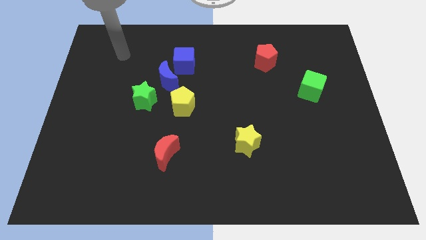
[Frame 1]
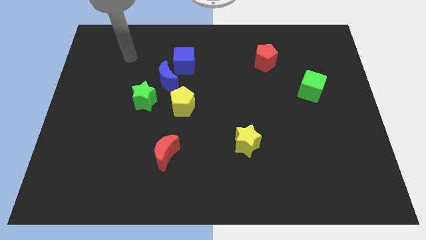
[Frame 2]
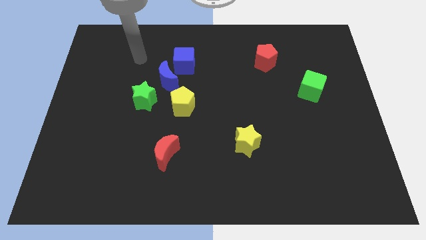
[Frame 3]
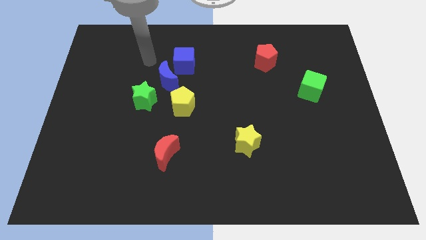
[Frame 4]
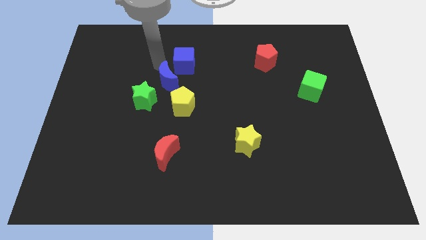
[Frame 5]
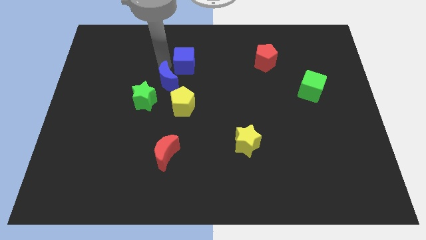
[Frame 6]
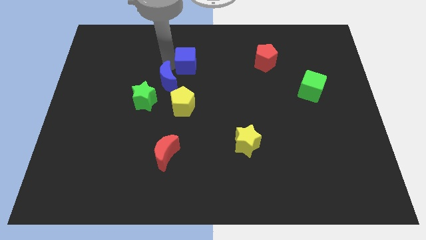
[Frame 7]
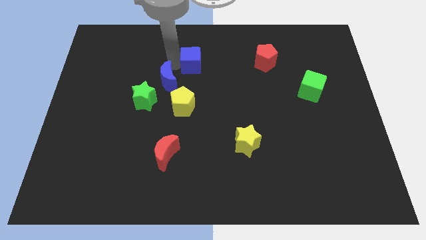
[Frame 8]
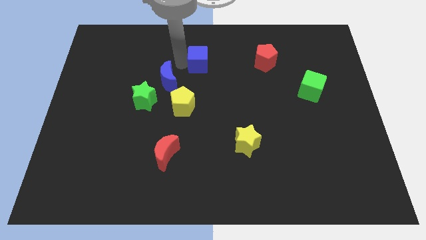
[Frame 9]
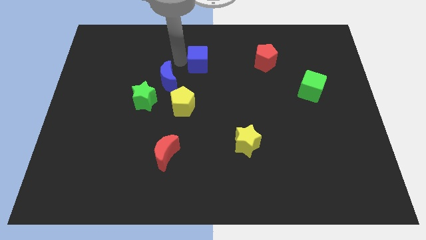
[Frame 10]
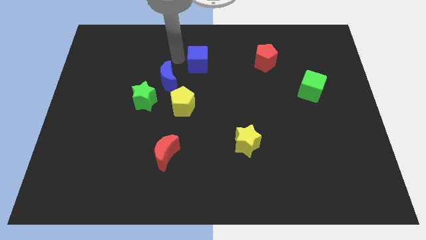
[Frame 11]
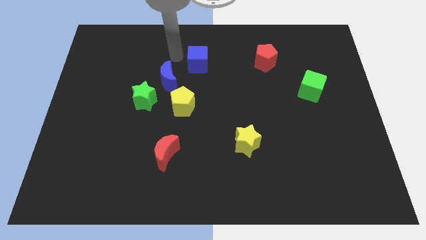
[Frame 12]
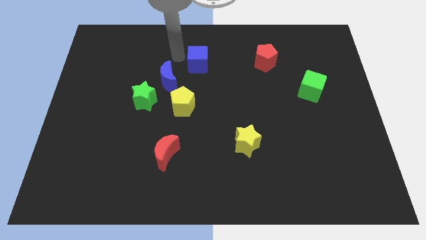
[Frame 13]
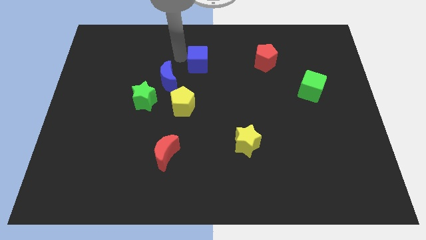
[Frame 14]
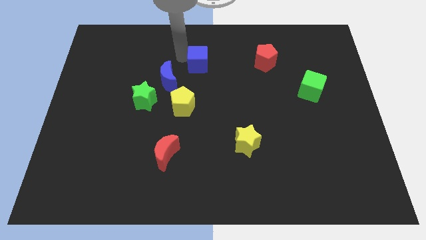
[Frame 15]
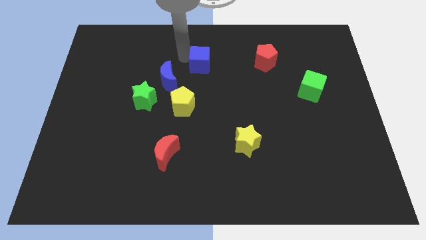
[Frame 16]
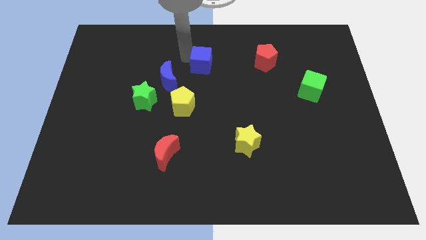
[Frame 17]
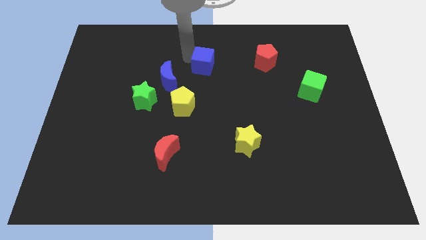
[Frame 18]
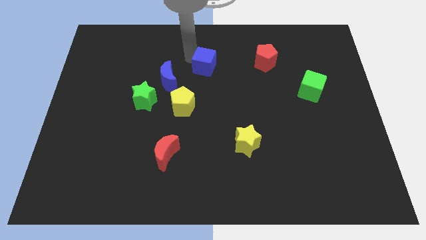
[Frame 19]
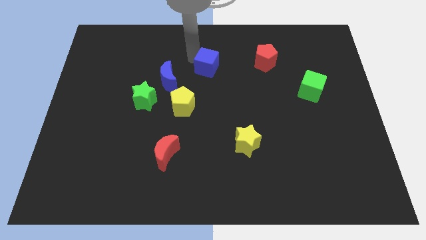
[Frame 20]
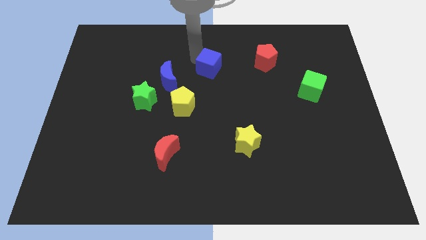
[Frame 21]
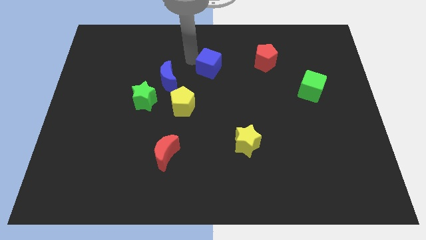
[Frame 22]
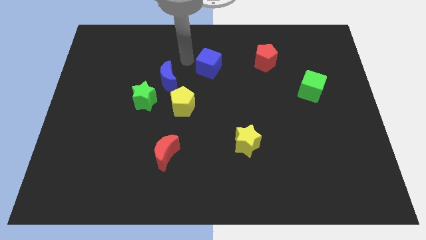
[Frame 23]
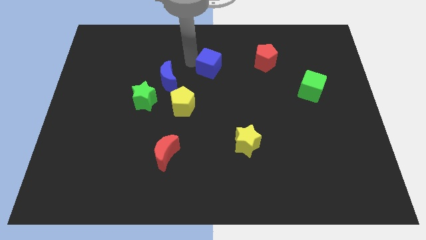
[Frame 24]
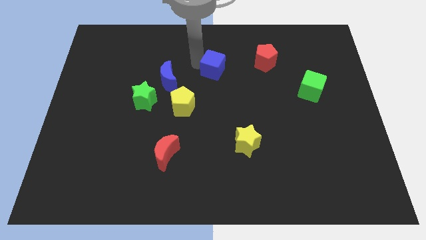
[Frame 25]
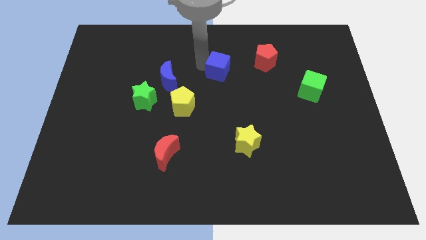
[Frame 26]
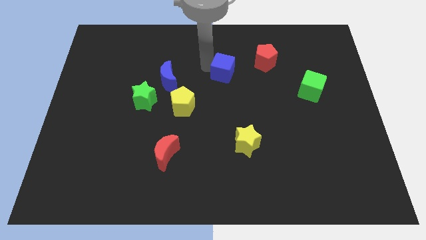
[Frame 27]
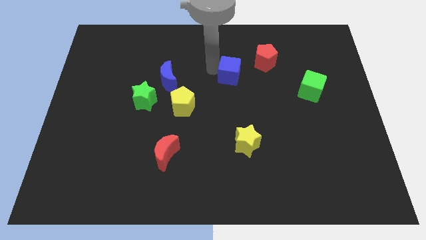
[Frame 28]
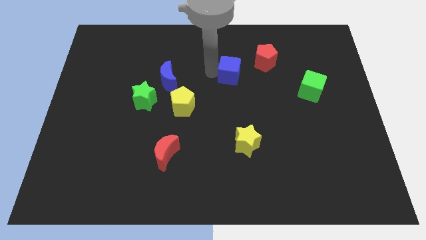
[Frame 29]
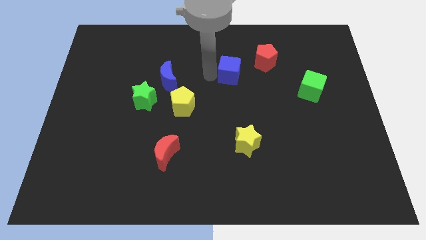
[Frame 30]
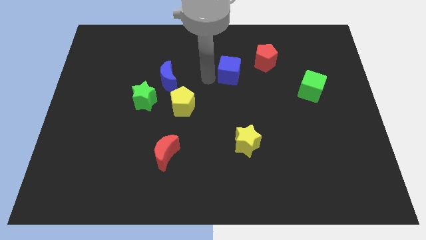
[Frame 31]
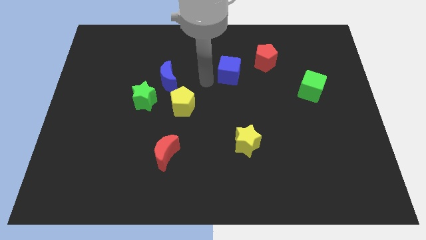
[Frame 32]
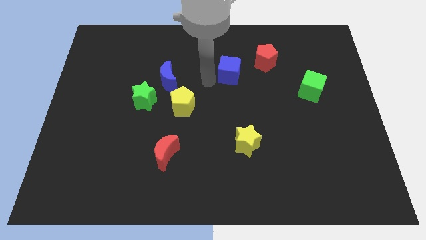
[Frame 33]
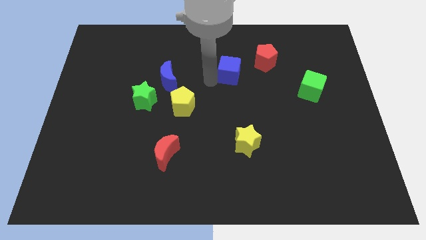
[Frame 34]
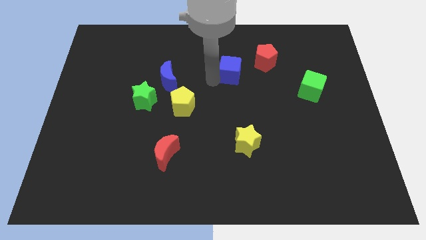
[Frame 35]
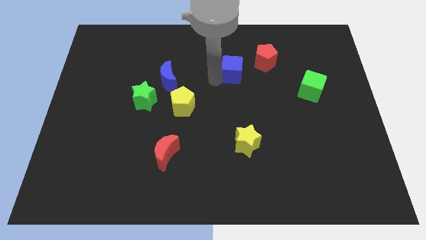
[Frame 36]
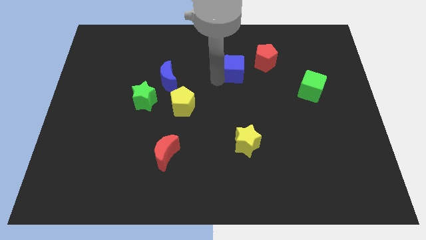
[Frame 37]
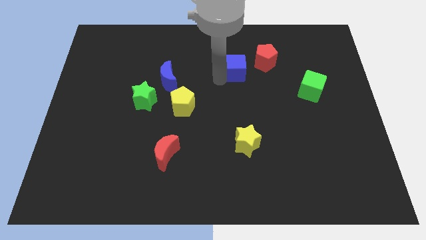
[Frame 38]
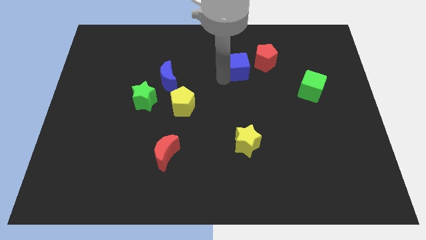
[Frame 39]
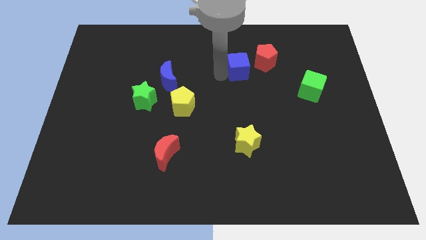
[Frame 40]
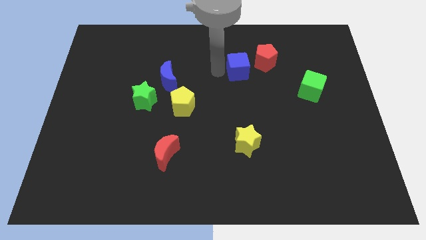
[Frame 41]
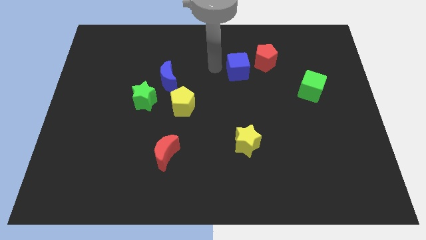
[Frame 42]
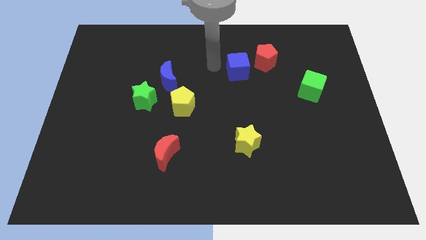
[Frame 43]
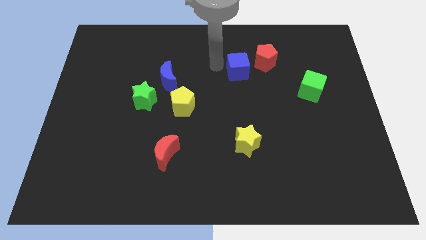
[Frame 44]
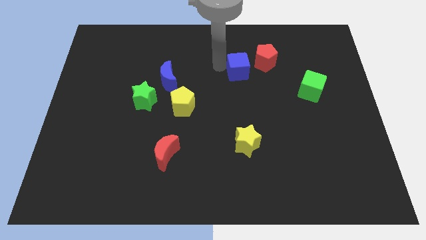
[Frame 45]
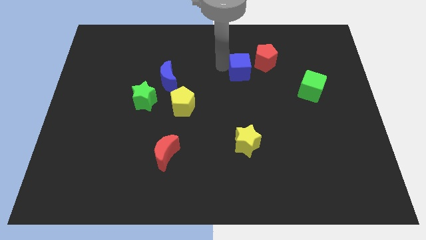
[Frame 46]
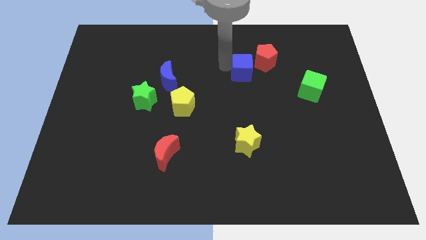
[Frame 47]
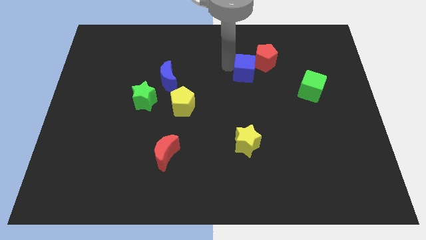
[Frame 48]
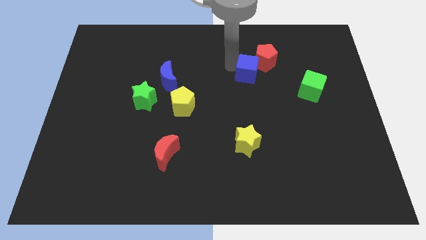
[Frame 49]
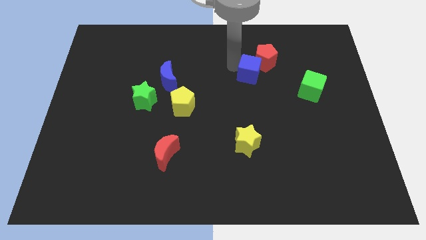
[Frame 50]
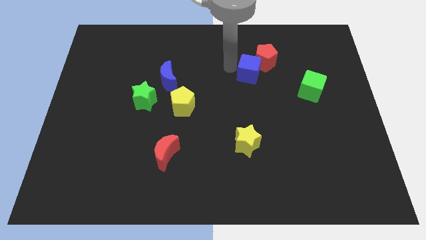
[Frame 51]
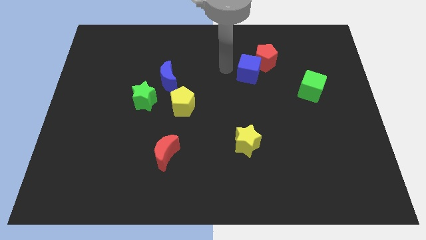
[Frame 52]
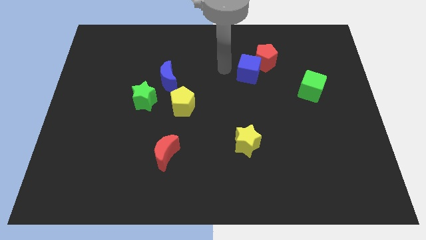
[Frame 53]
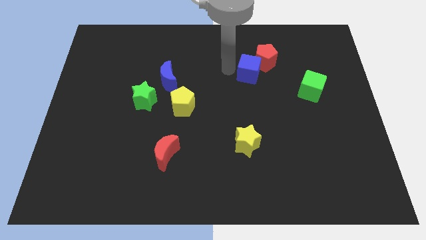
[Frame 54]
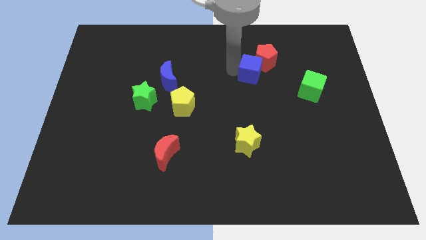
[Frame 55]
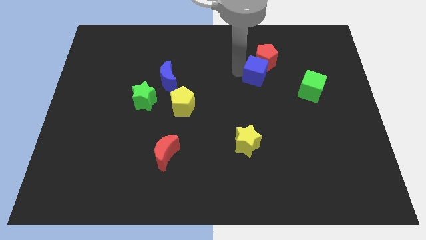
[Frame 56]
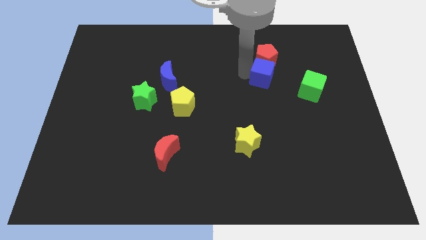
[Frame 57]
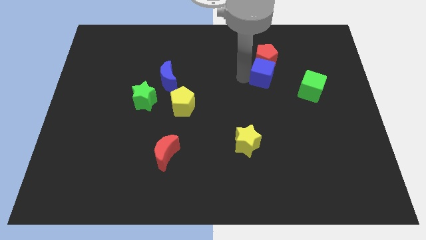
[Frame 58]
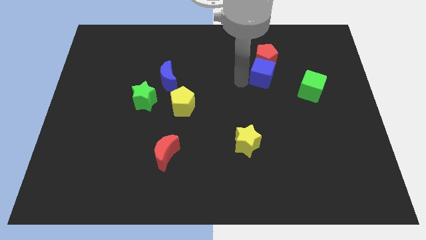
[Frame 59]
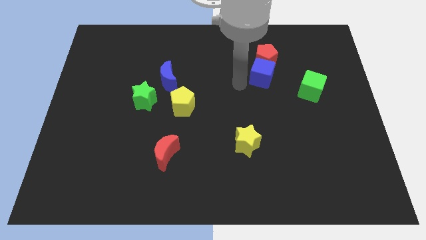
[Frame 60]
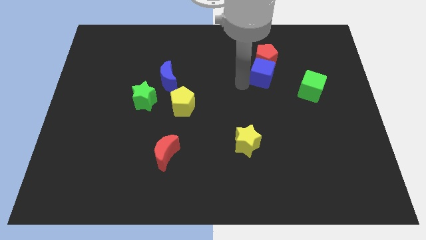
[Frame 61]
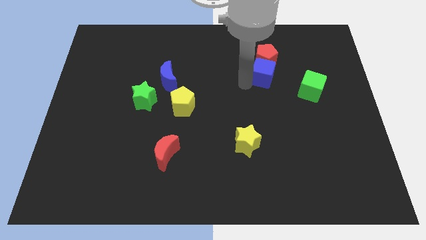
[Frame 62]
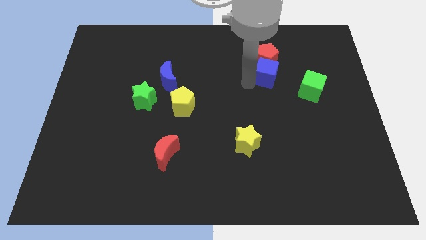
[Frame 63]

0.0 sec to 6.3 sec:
slide the blue cube right

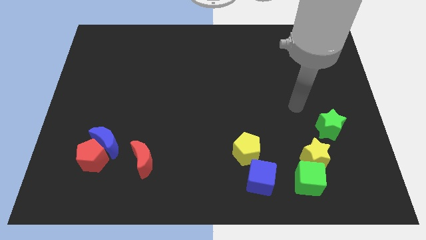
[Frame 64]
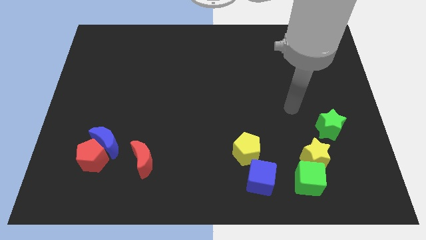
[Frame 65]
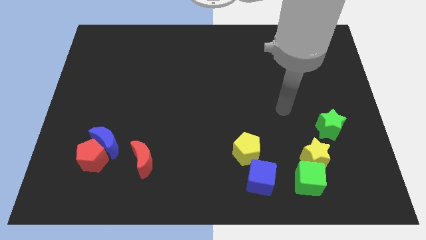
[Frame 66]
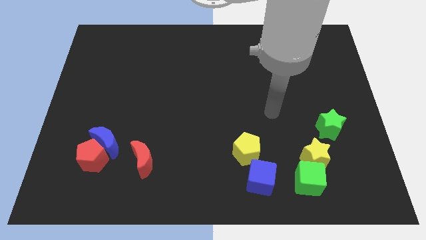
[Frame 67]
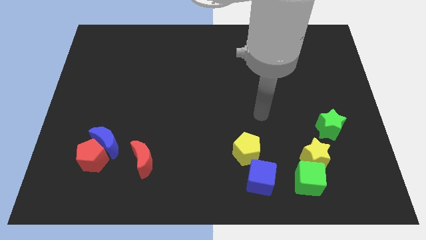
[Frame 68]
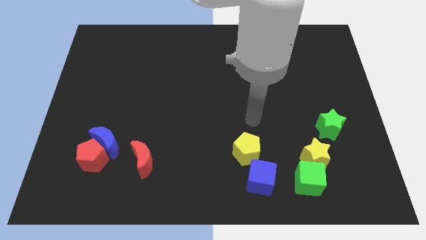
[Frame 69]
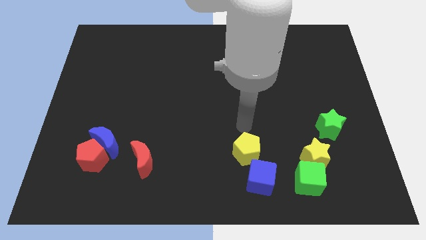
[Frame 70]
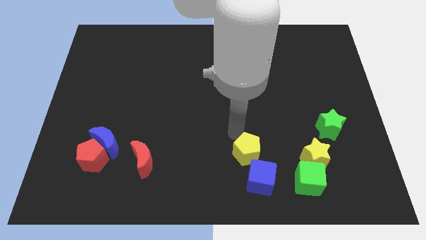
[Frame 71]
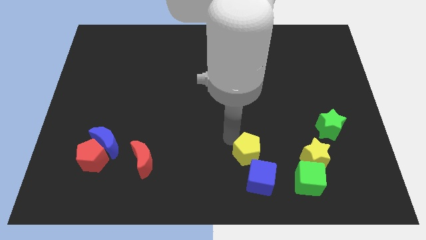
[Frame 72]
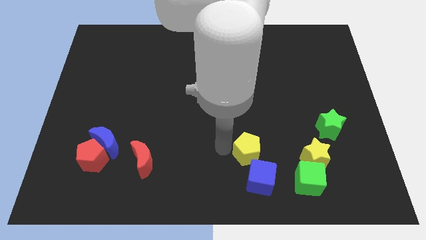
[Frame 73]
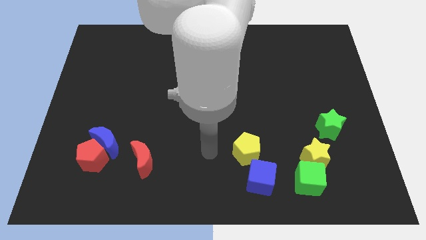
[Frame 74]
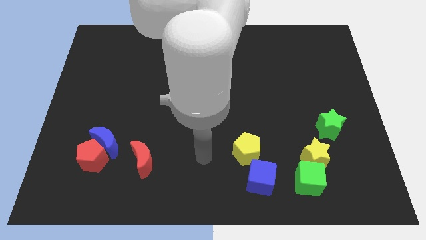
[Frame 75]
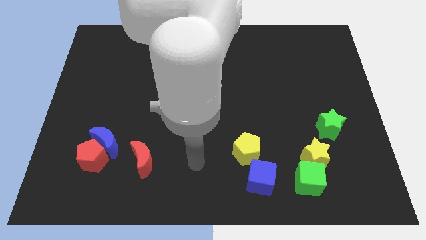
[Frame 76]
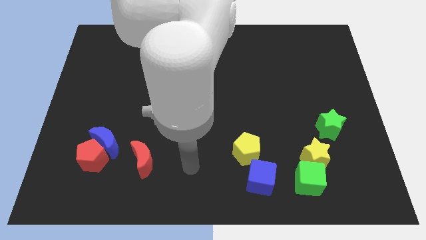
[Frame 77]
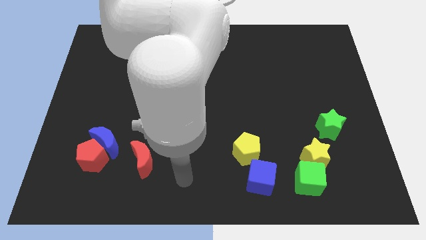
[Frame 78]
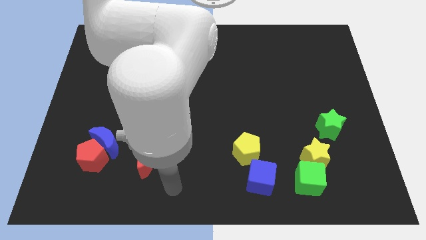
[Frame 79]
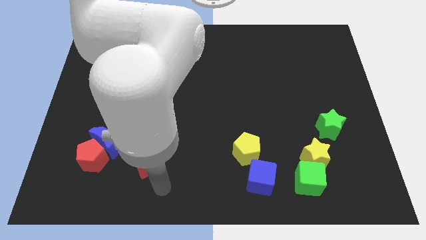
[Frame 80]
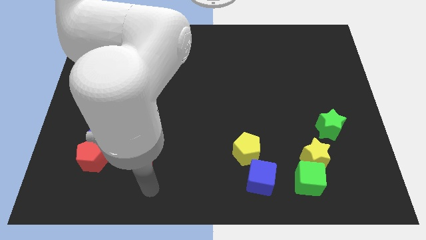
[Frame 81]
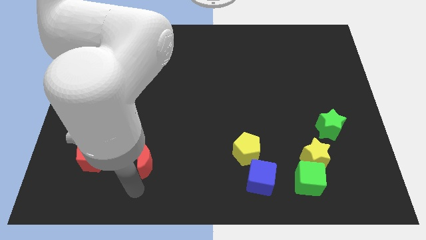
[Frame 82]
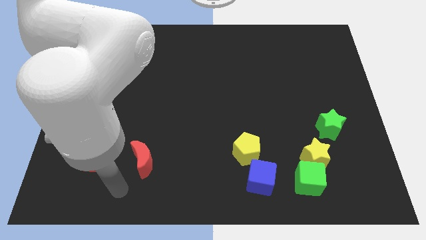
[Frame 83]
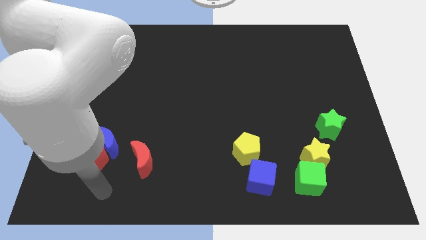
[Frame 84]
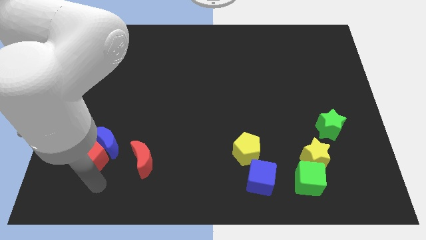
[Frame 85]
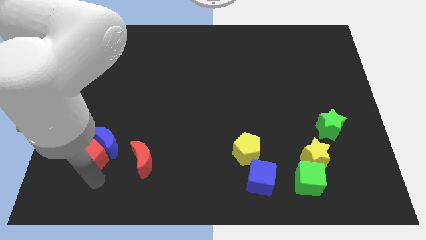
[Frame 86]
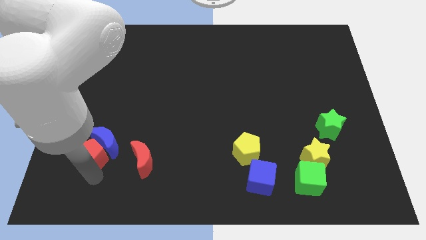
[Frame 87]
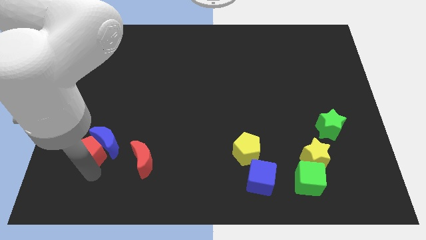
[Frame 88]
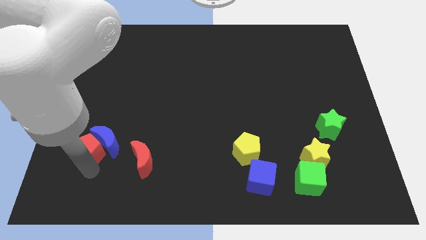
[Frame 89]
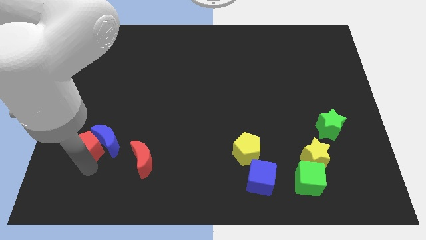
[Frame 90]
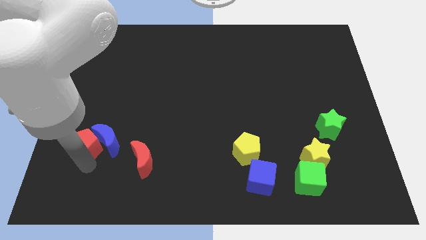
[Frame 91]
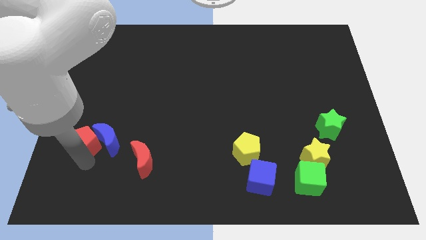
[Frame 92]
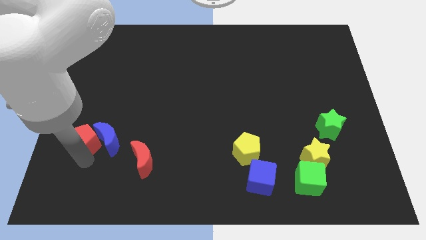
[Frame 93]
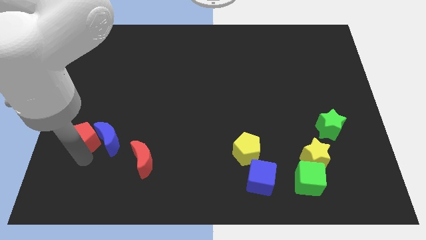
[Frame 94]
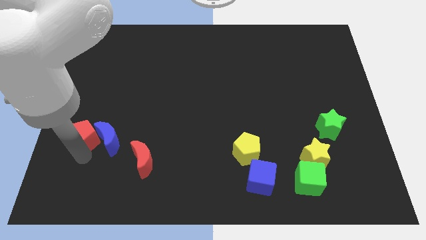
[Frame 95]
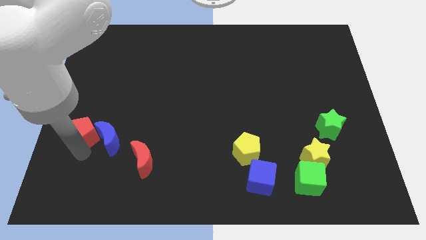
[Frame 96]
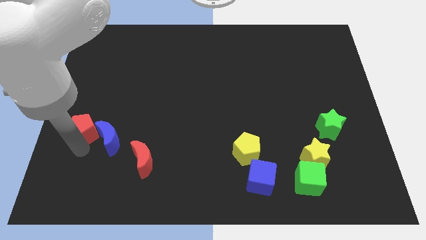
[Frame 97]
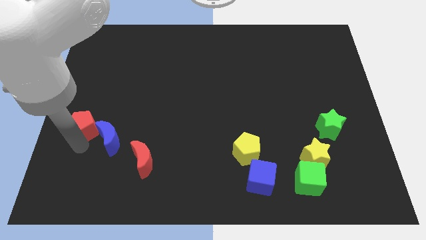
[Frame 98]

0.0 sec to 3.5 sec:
slightly slide the red pentagon upwards
